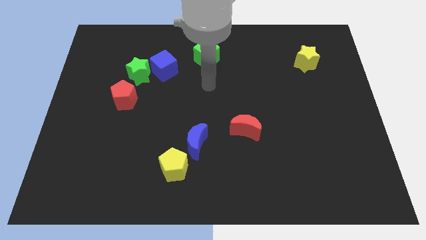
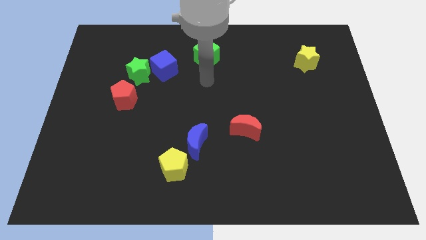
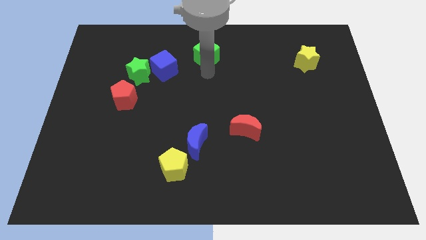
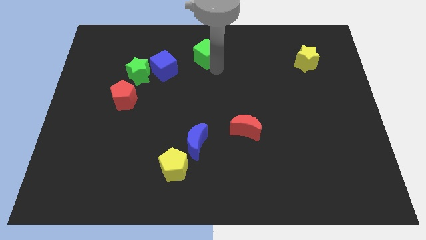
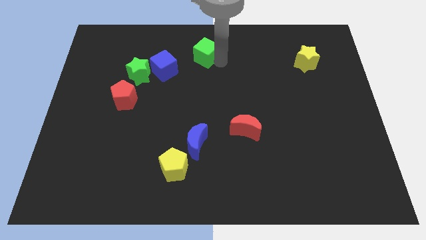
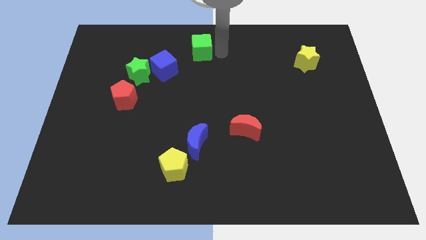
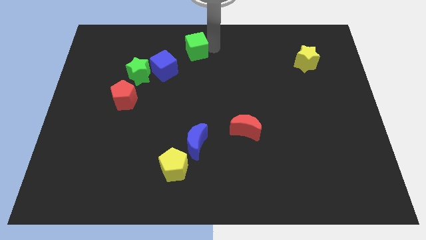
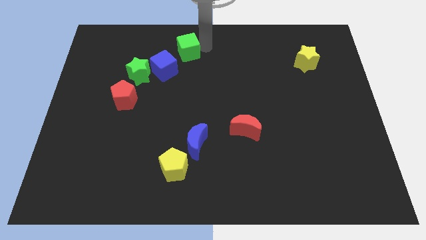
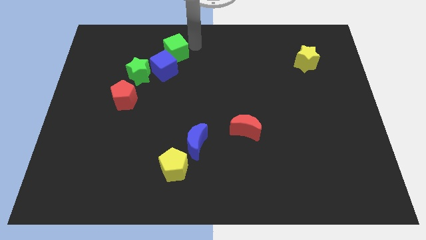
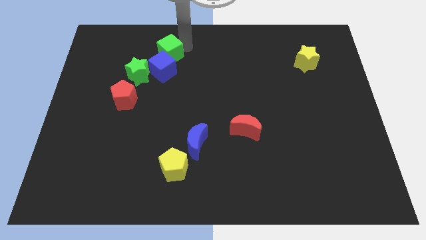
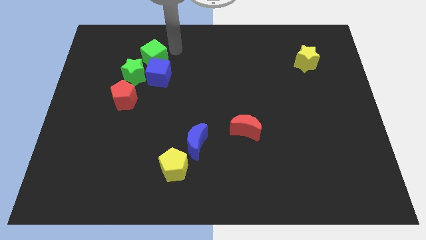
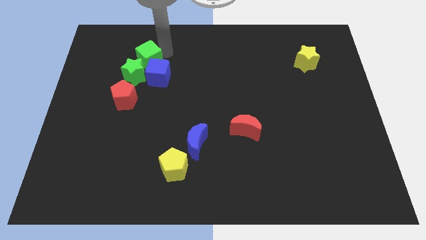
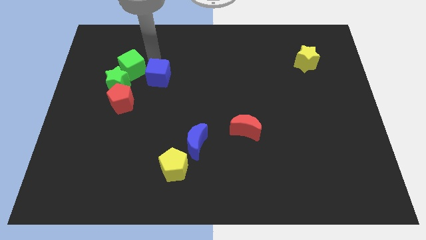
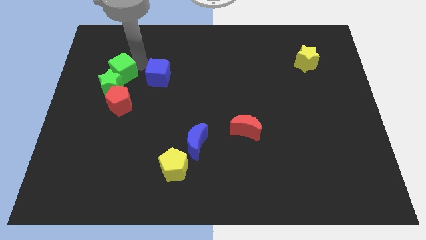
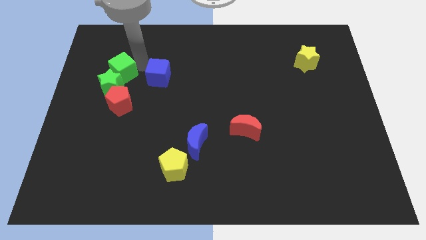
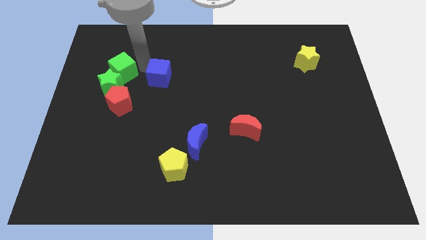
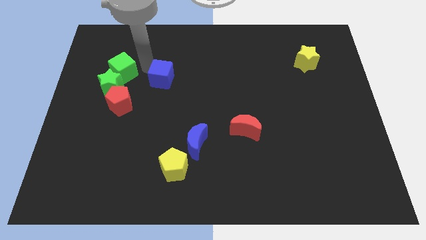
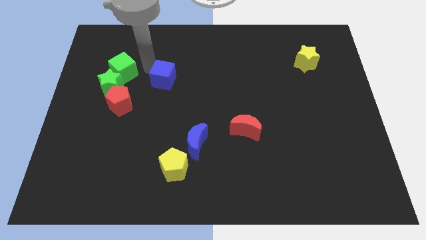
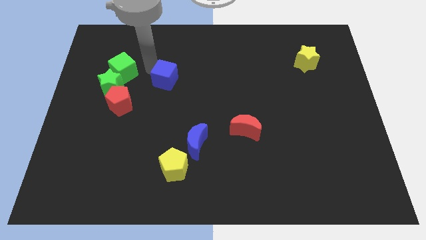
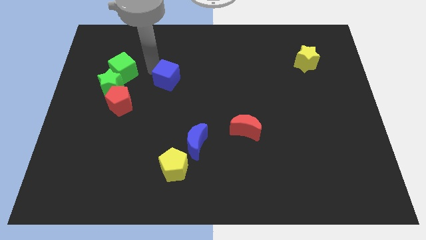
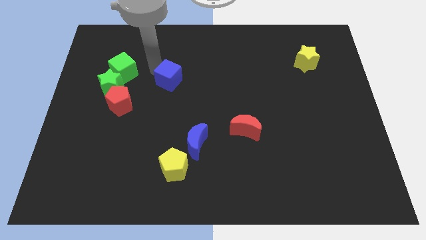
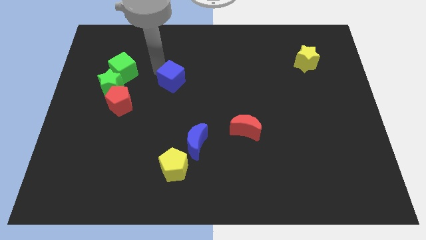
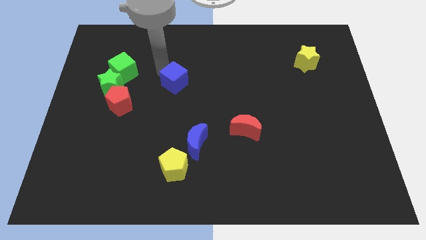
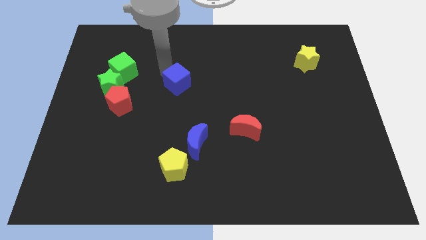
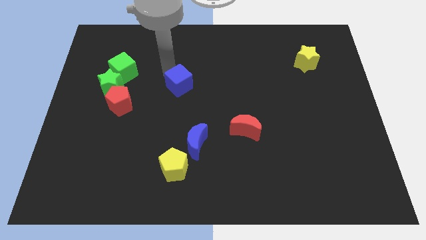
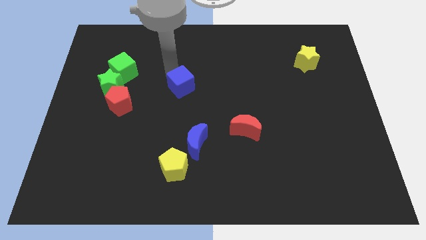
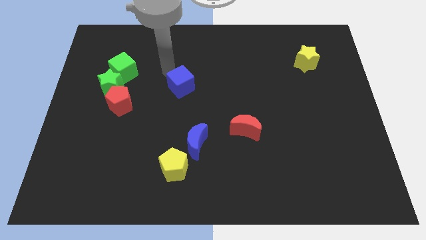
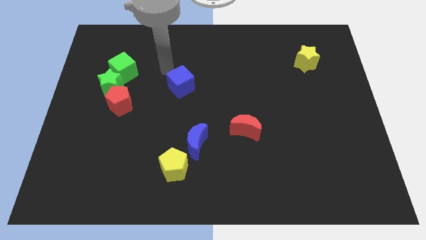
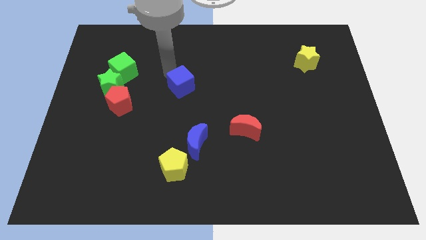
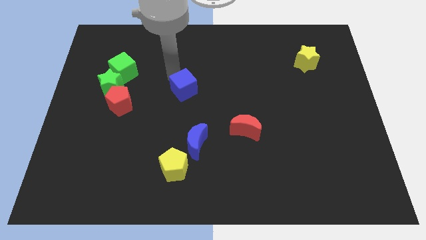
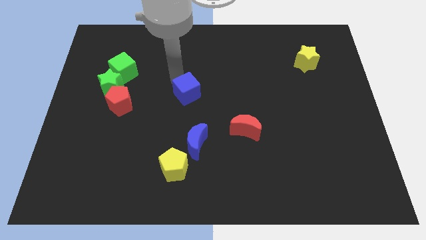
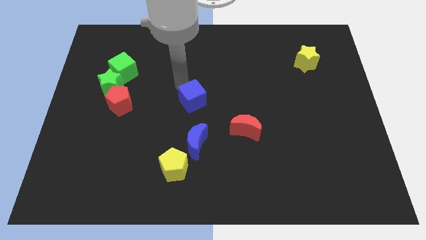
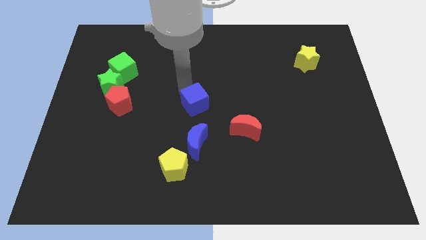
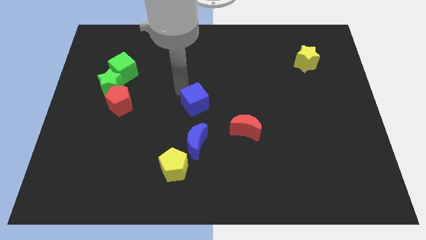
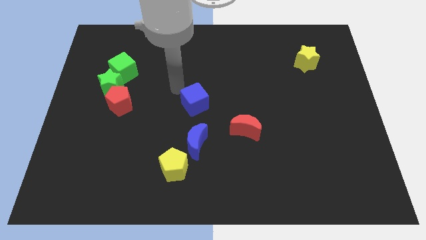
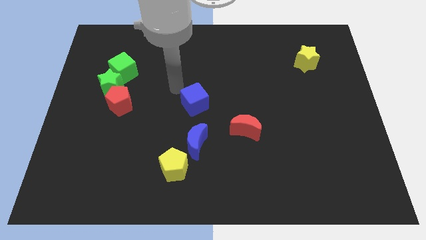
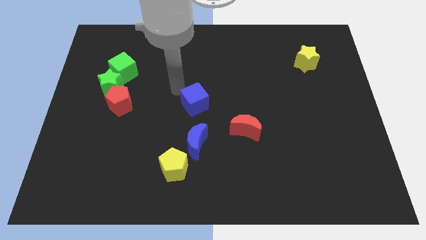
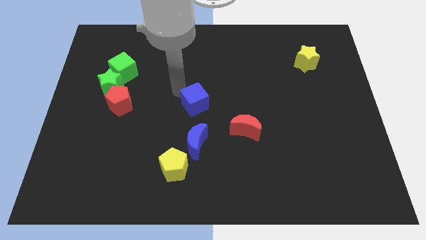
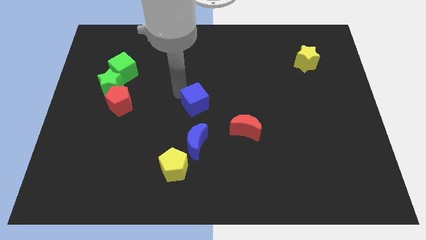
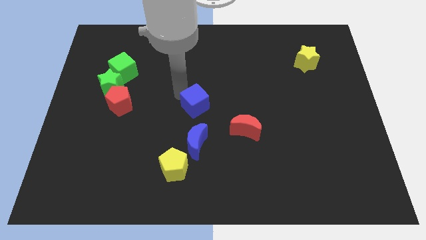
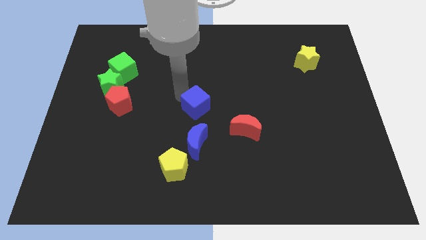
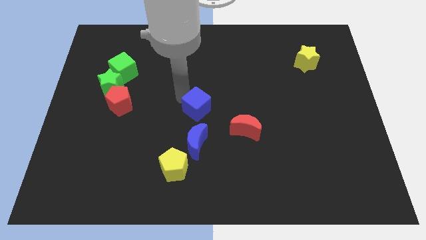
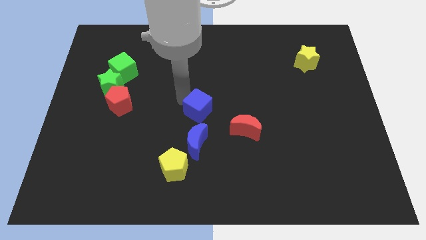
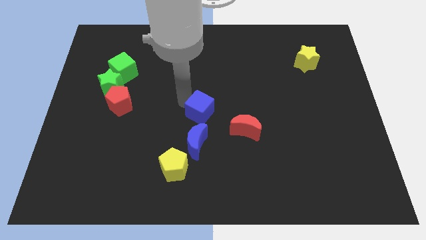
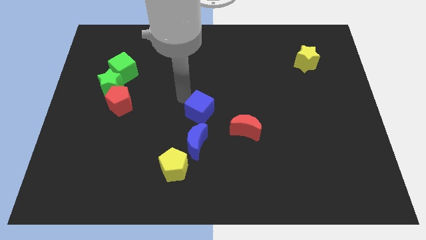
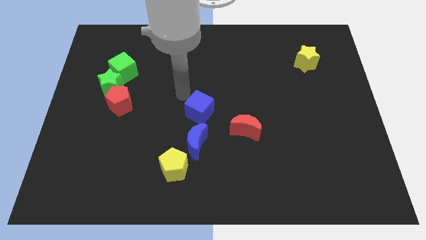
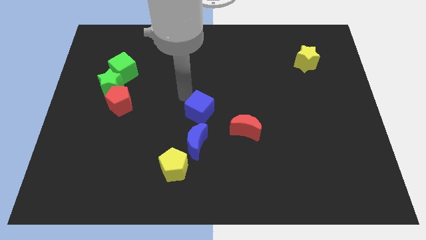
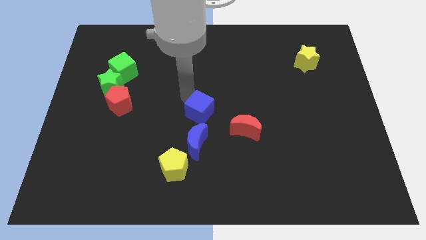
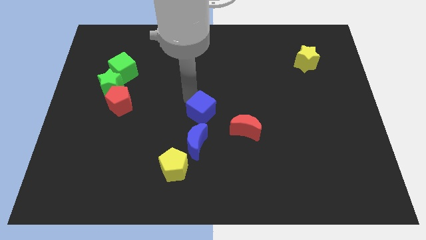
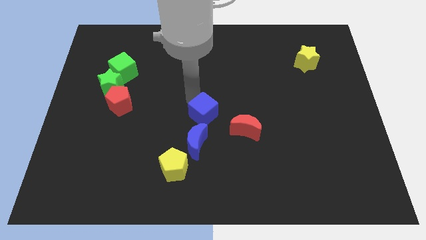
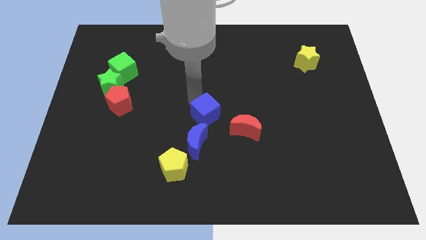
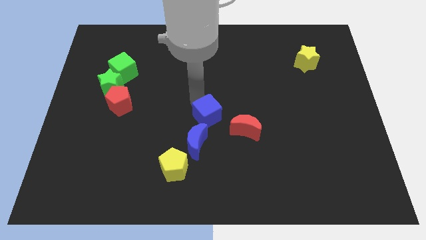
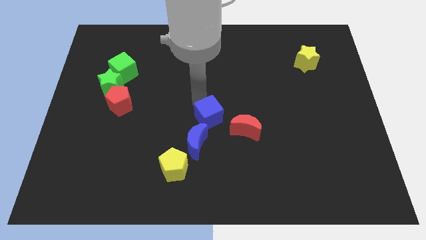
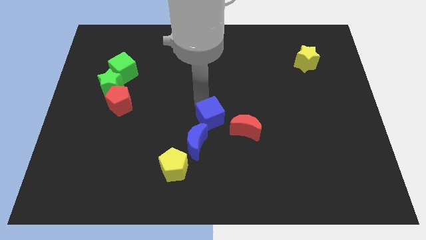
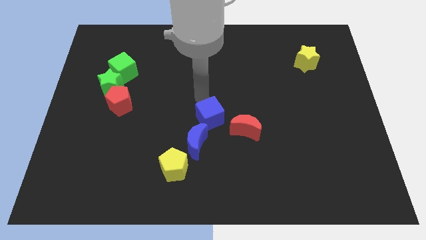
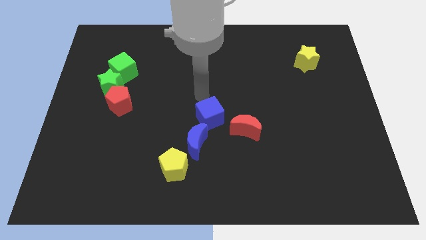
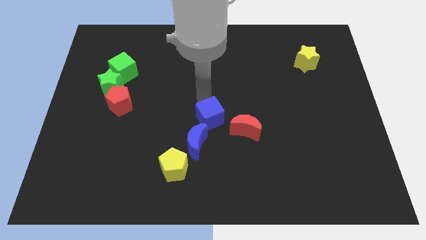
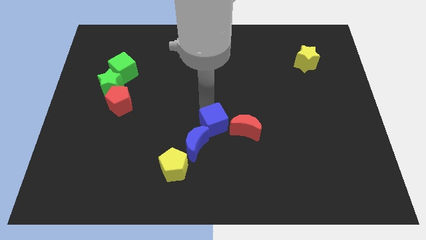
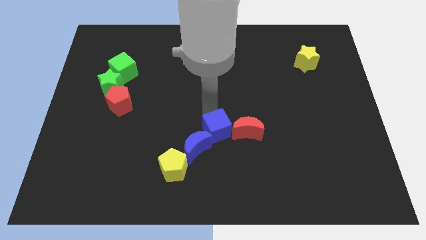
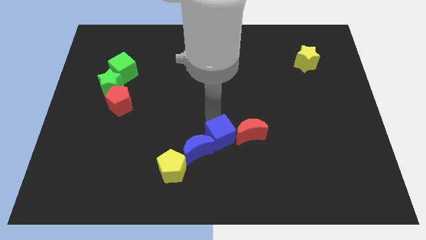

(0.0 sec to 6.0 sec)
move the blue cube diagonally down and to the left of the red moon
